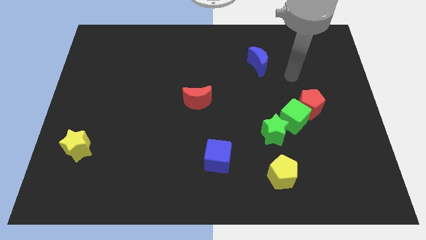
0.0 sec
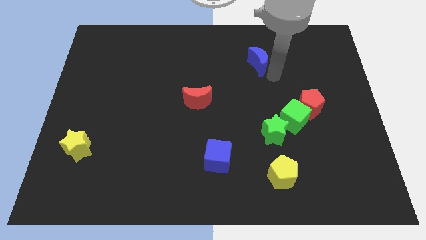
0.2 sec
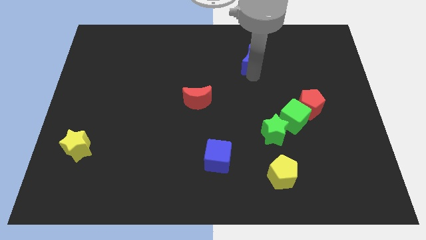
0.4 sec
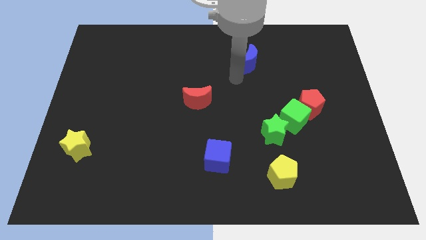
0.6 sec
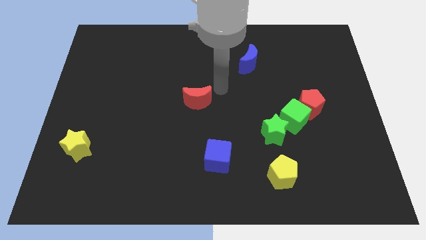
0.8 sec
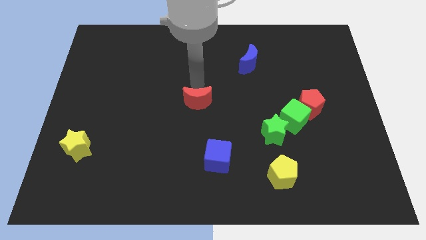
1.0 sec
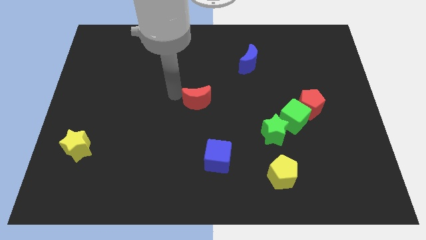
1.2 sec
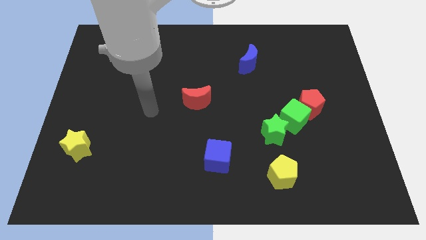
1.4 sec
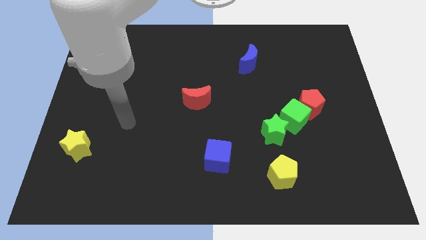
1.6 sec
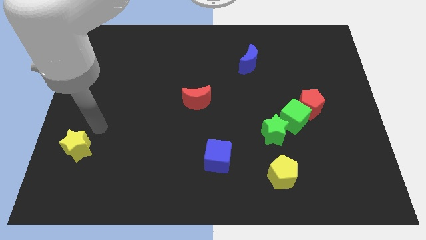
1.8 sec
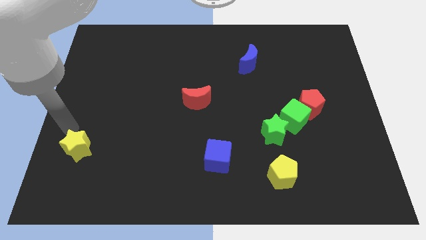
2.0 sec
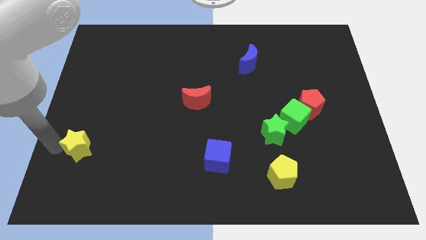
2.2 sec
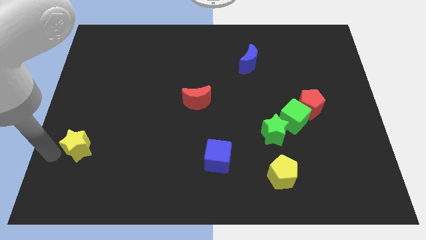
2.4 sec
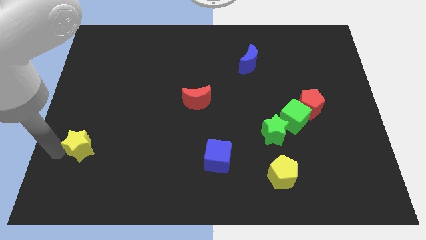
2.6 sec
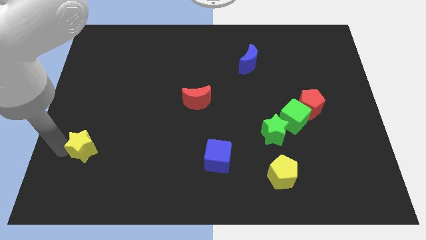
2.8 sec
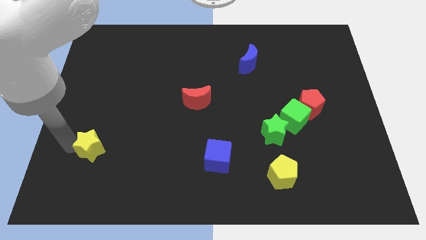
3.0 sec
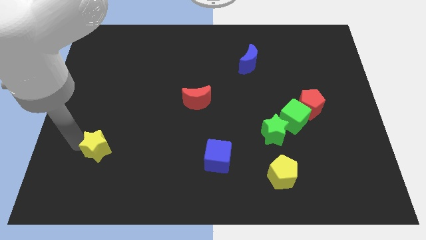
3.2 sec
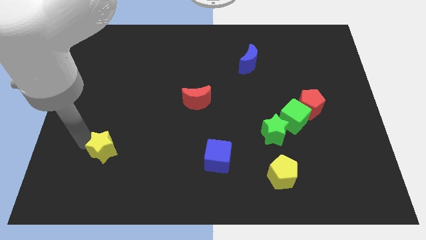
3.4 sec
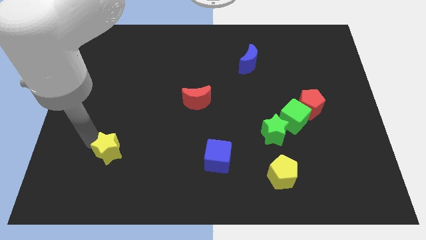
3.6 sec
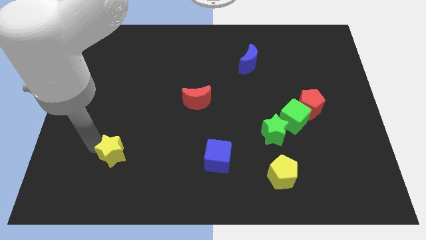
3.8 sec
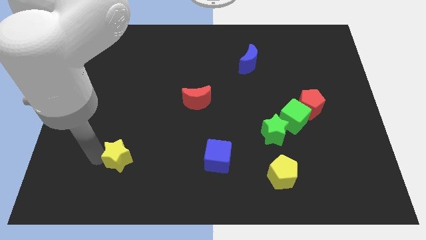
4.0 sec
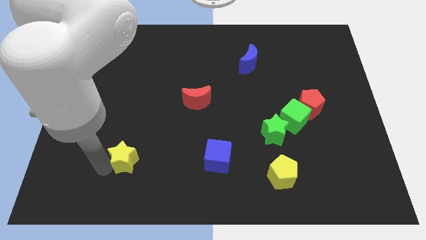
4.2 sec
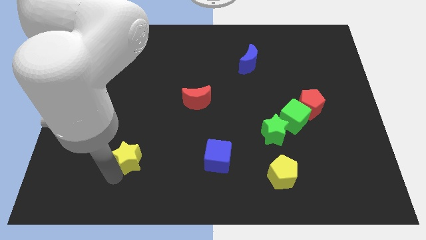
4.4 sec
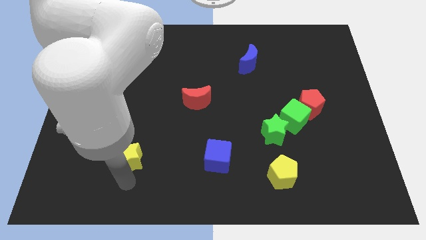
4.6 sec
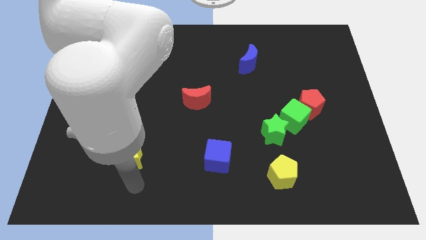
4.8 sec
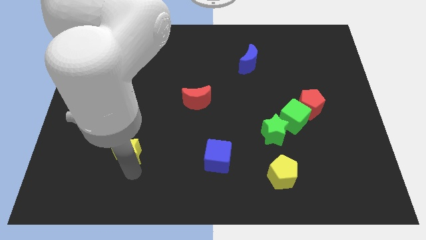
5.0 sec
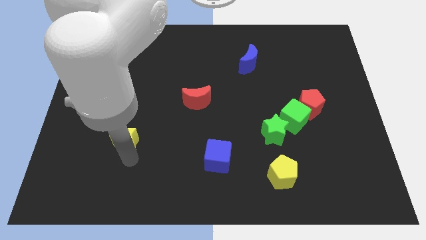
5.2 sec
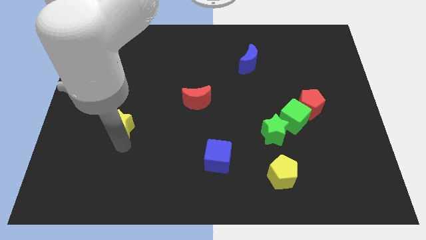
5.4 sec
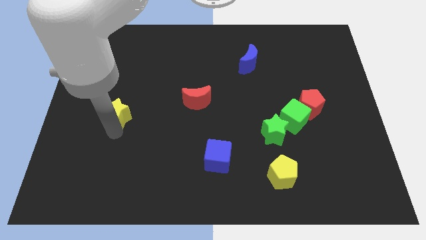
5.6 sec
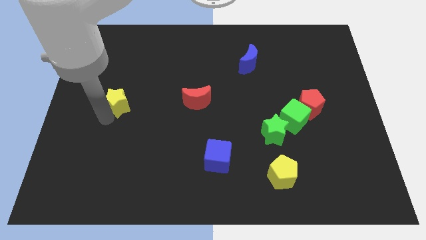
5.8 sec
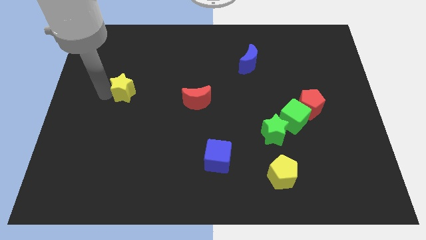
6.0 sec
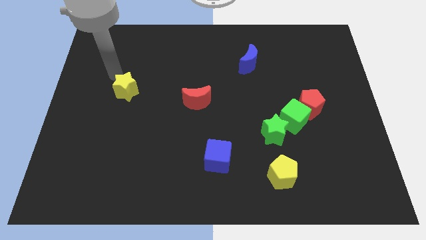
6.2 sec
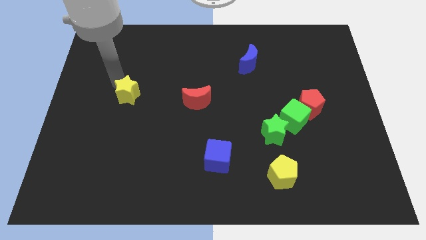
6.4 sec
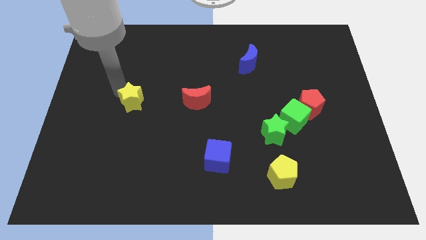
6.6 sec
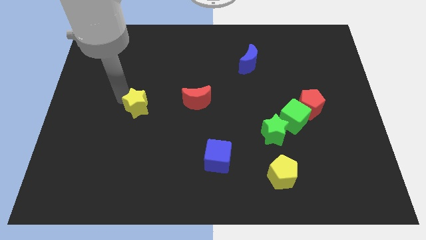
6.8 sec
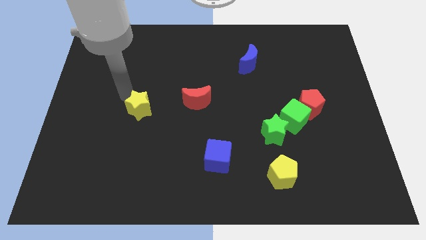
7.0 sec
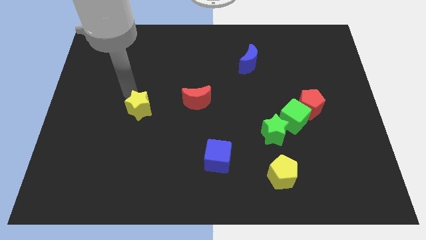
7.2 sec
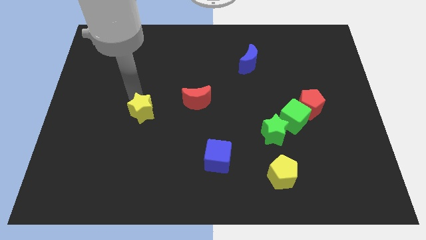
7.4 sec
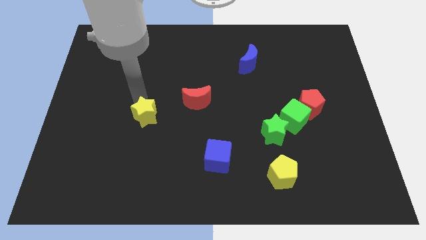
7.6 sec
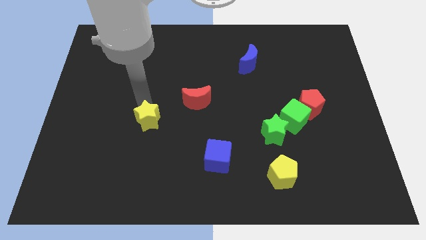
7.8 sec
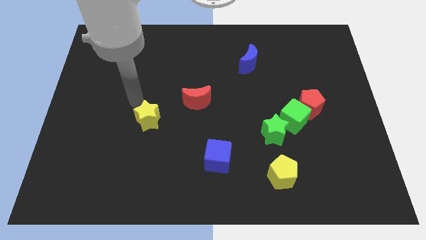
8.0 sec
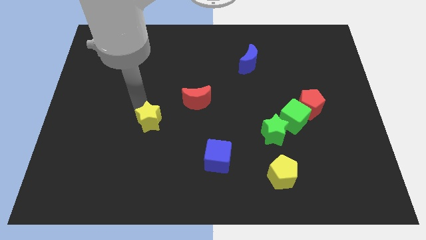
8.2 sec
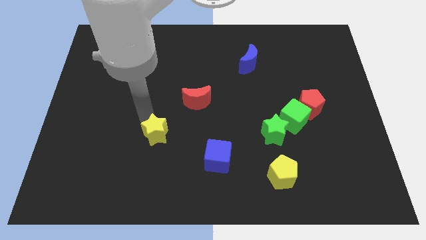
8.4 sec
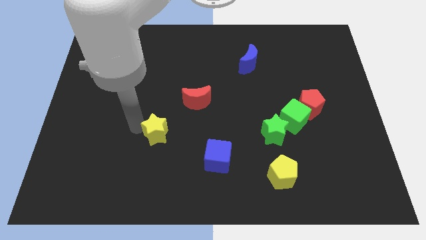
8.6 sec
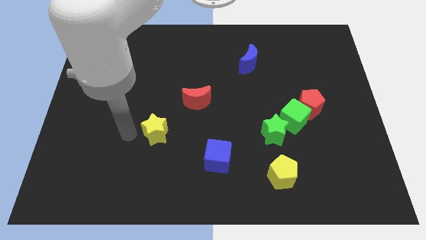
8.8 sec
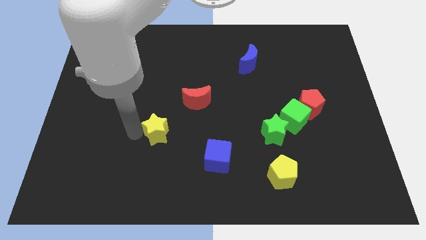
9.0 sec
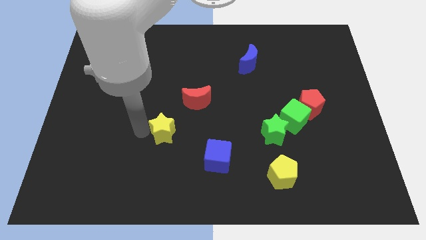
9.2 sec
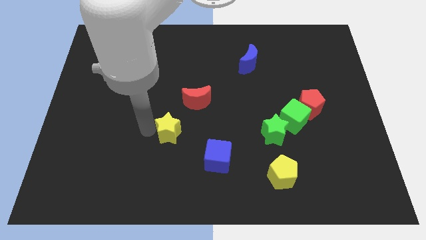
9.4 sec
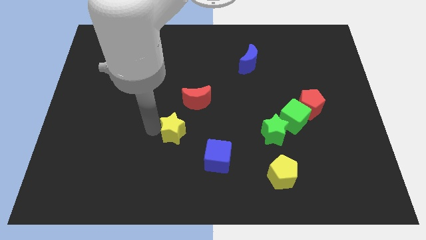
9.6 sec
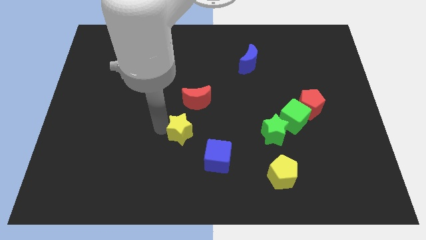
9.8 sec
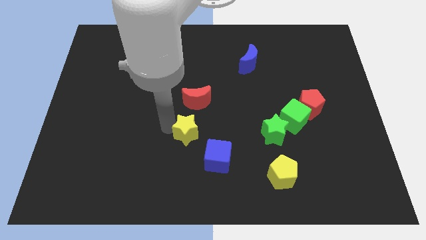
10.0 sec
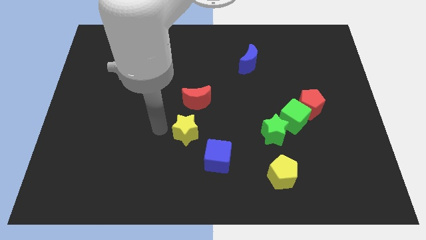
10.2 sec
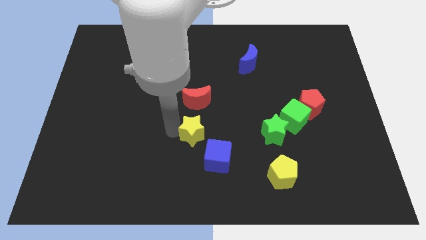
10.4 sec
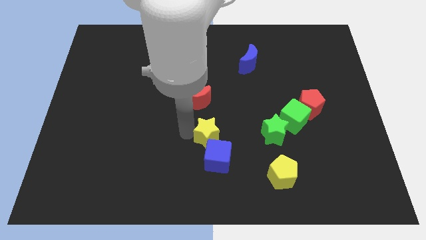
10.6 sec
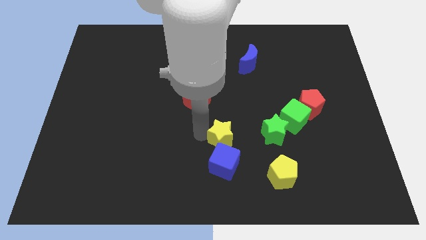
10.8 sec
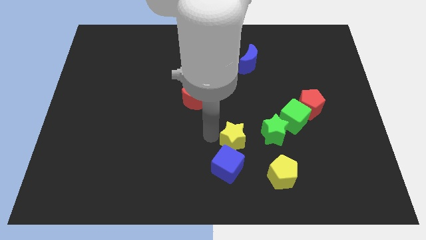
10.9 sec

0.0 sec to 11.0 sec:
slide the yellow star to the top left side of the yellow pentagon

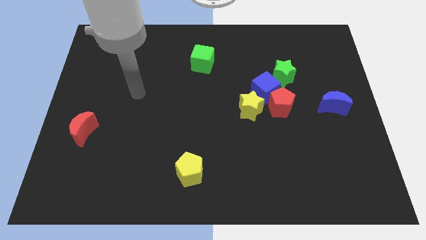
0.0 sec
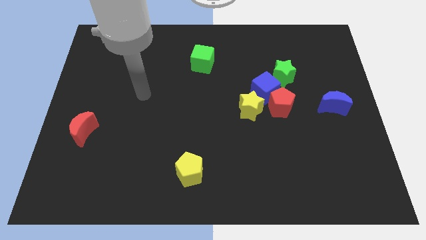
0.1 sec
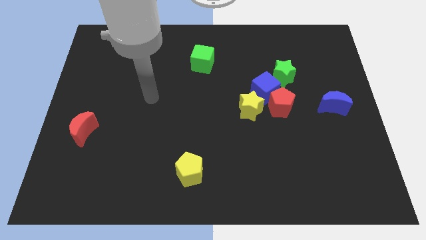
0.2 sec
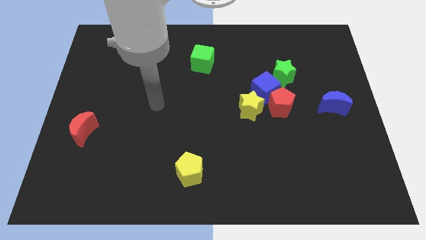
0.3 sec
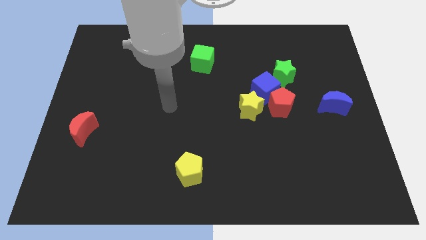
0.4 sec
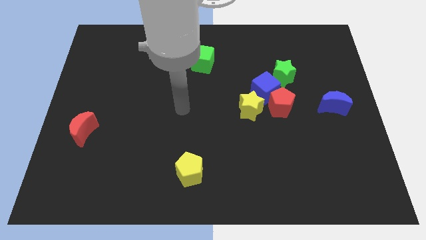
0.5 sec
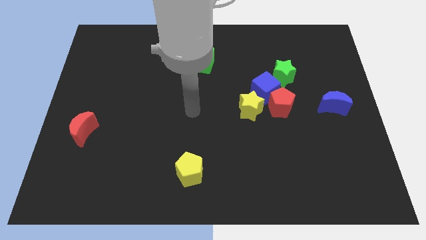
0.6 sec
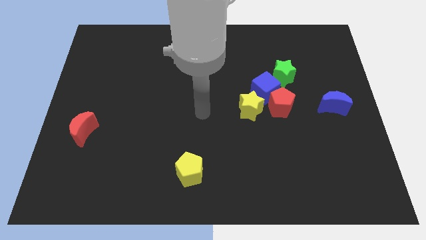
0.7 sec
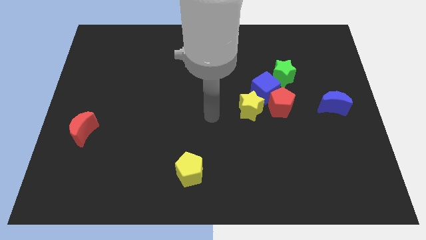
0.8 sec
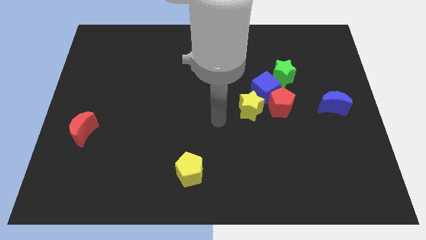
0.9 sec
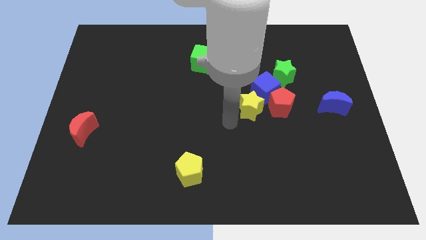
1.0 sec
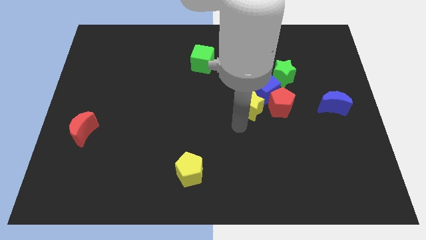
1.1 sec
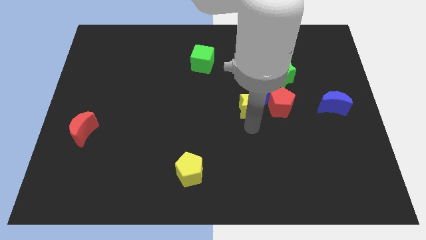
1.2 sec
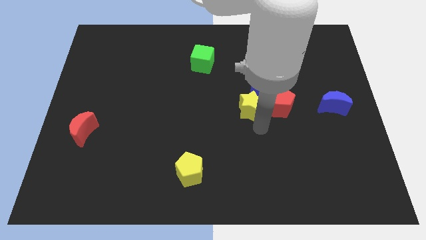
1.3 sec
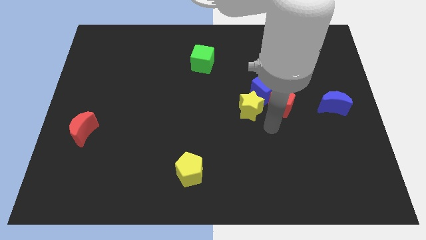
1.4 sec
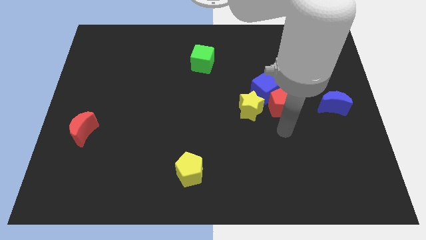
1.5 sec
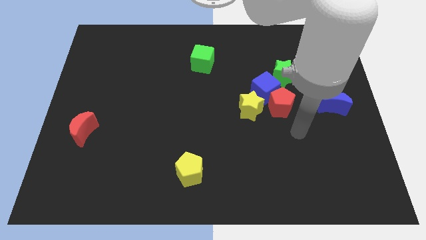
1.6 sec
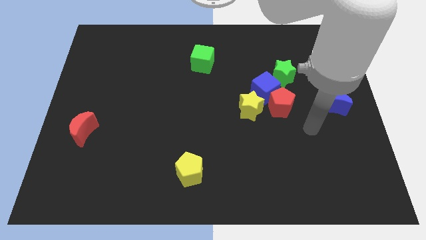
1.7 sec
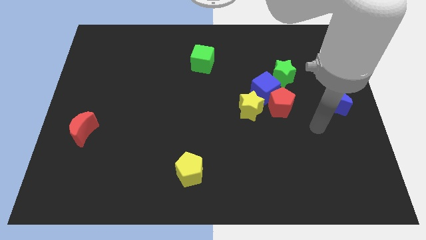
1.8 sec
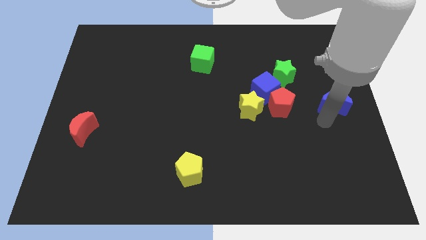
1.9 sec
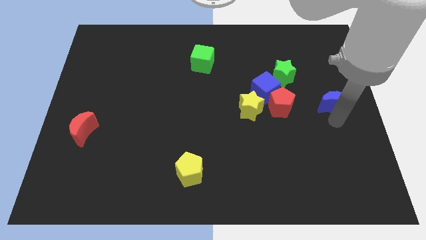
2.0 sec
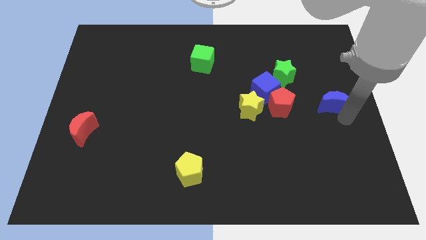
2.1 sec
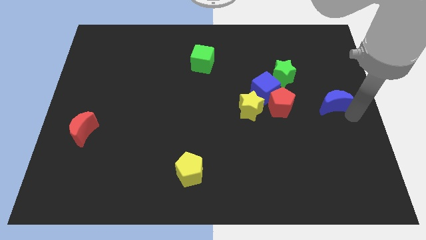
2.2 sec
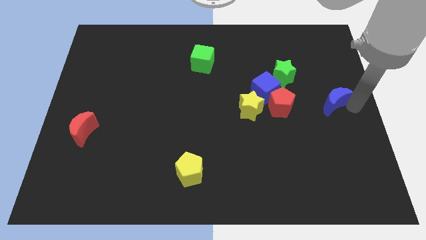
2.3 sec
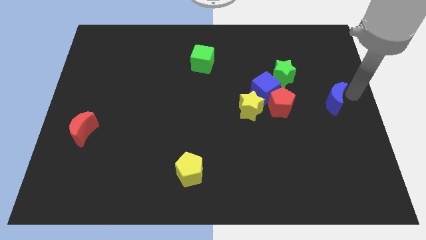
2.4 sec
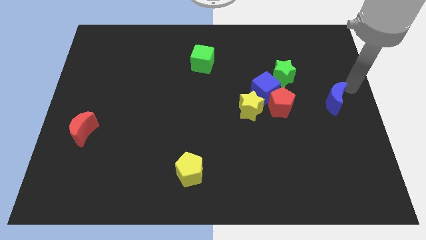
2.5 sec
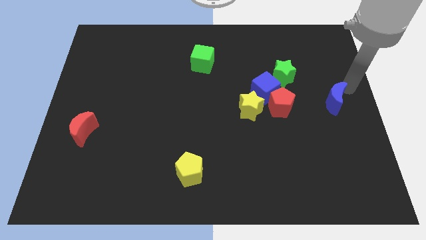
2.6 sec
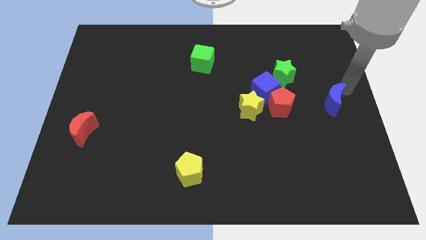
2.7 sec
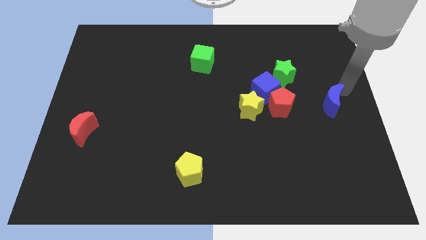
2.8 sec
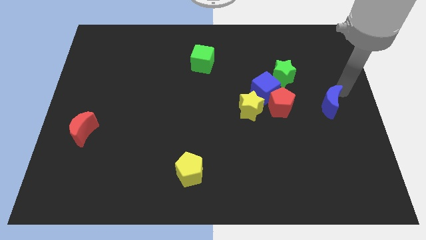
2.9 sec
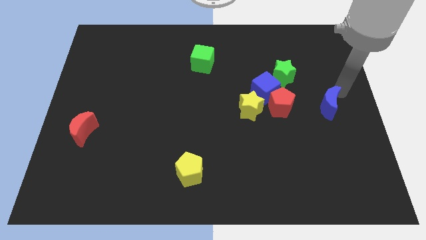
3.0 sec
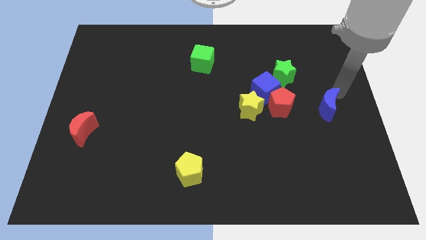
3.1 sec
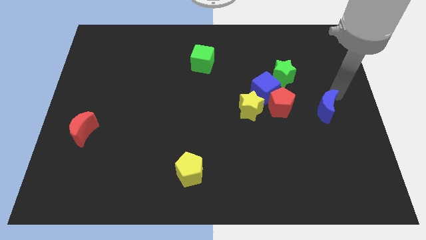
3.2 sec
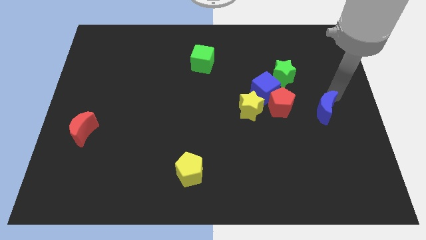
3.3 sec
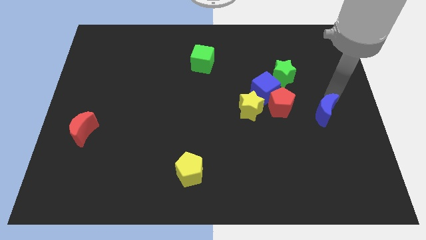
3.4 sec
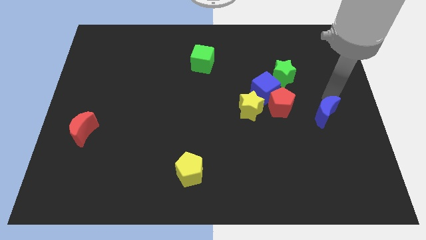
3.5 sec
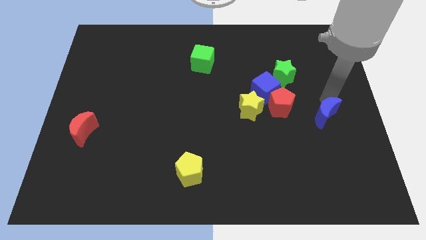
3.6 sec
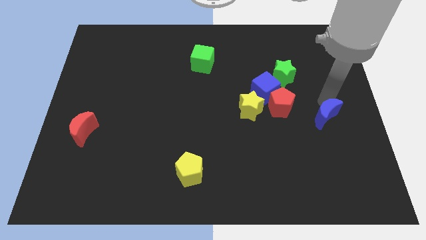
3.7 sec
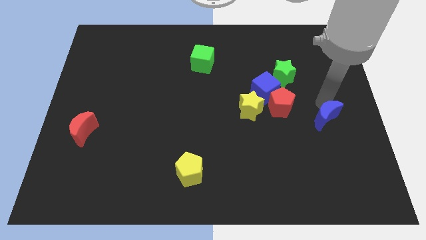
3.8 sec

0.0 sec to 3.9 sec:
push the blue moon to the bottom right side of the red pentagon
